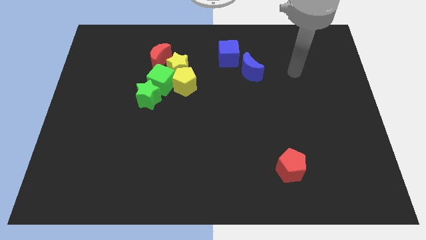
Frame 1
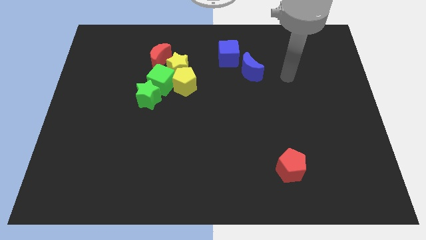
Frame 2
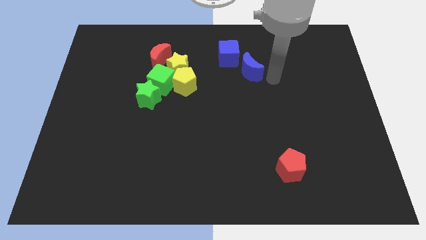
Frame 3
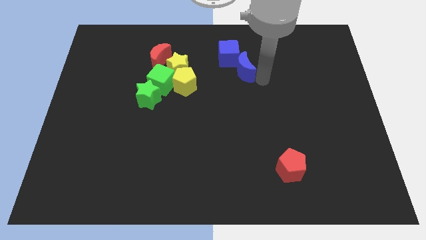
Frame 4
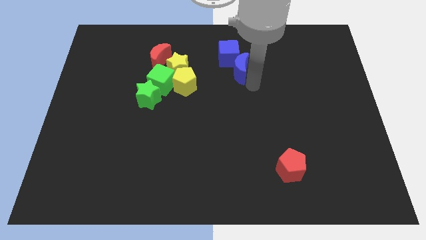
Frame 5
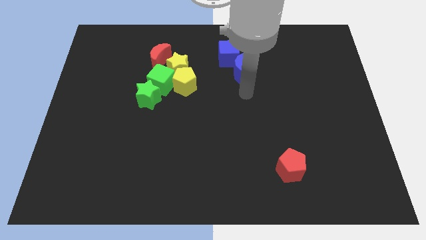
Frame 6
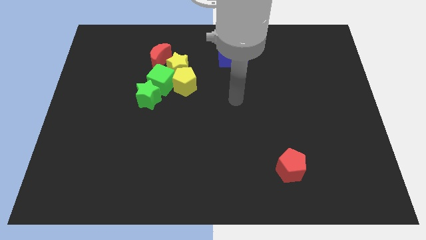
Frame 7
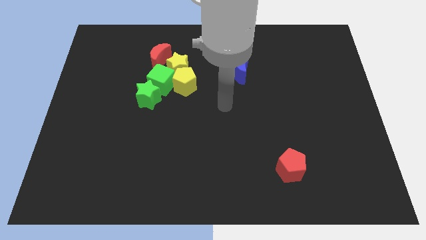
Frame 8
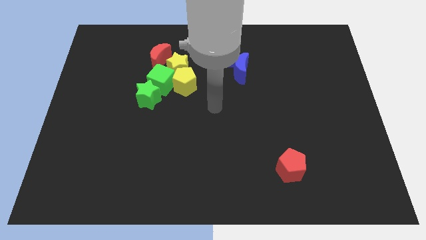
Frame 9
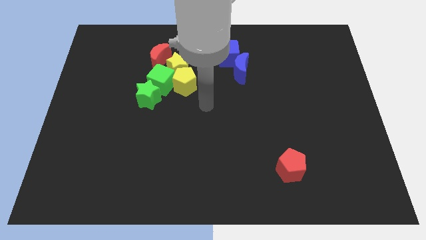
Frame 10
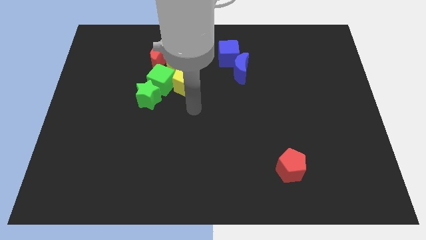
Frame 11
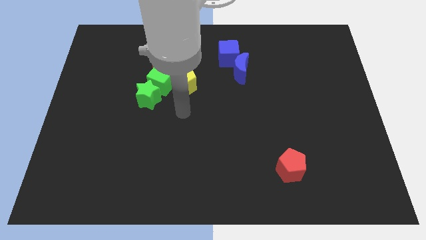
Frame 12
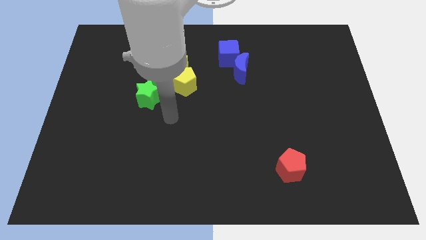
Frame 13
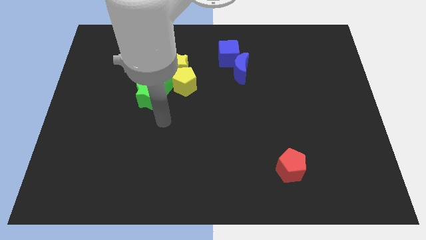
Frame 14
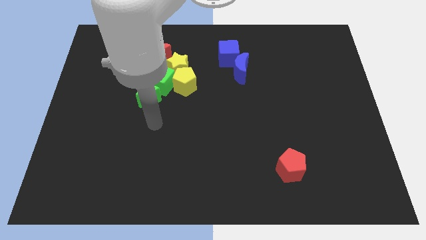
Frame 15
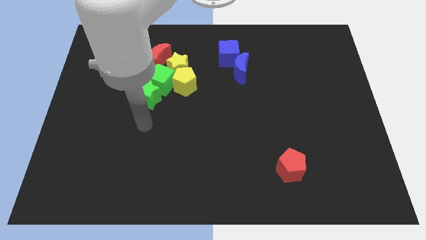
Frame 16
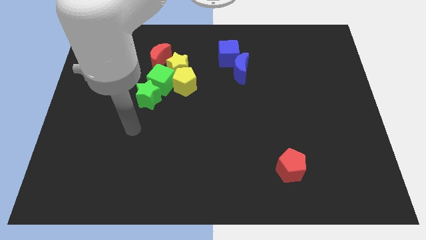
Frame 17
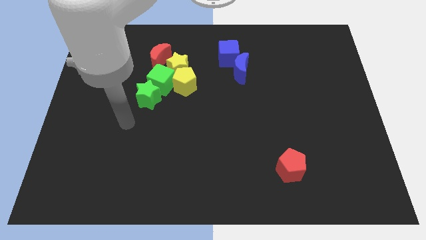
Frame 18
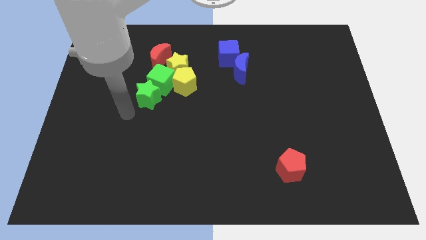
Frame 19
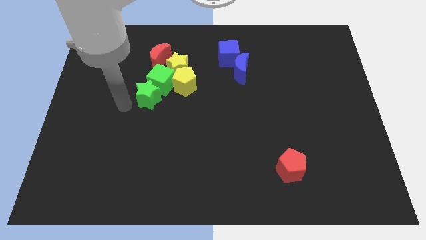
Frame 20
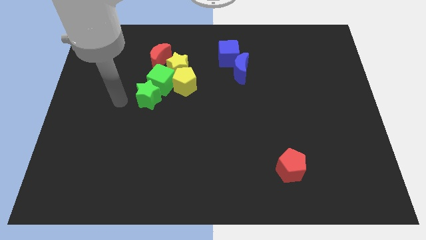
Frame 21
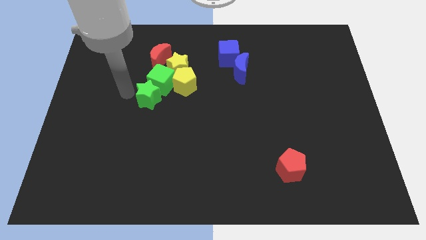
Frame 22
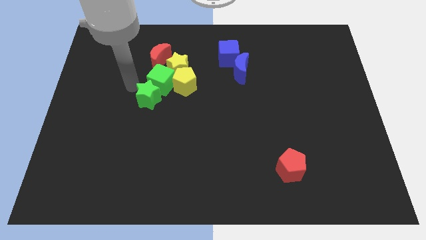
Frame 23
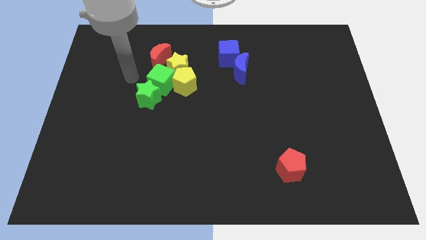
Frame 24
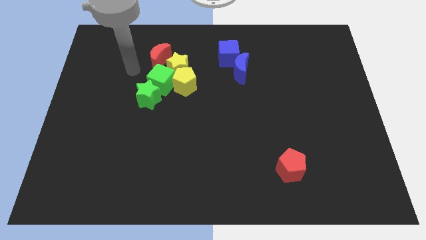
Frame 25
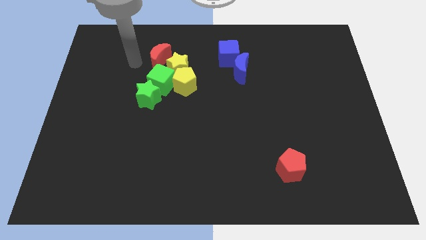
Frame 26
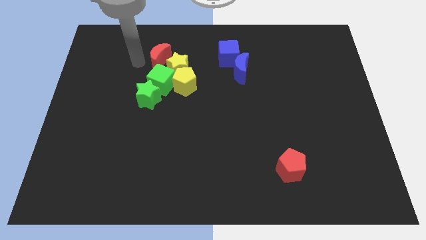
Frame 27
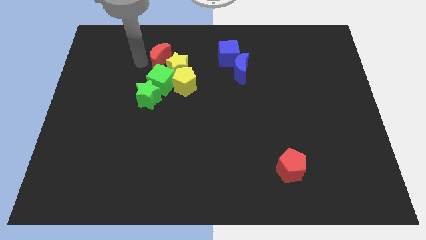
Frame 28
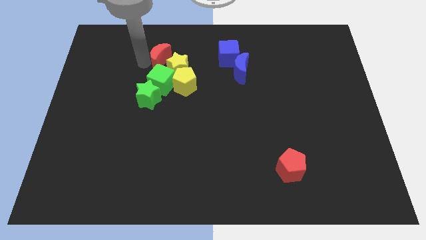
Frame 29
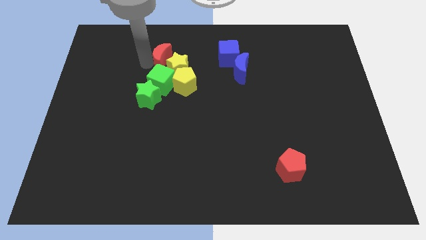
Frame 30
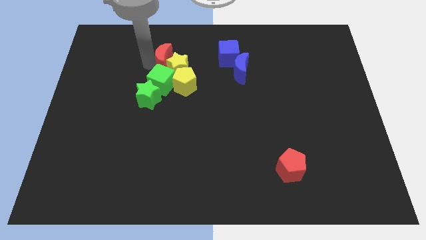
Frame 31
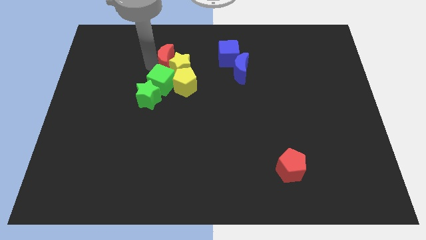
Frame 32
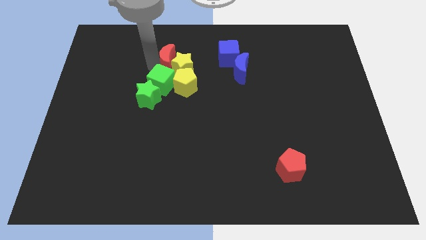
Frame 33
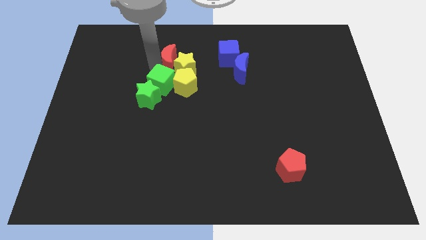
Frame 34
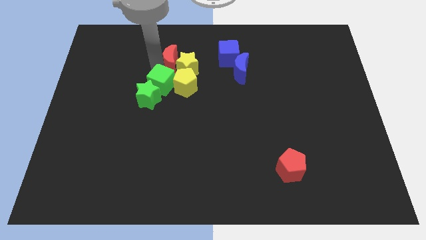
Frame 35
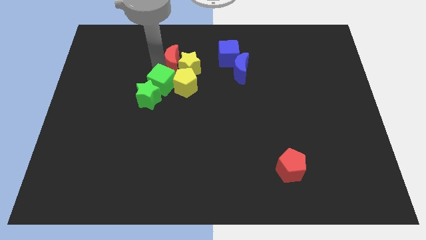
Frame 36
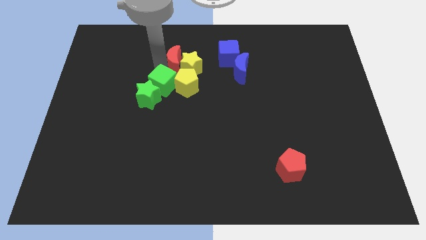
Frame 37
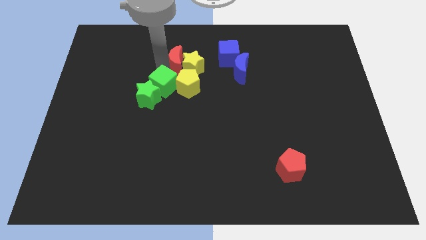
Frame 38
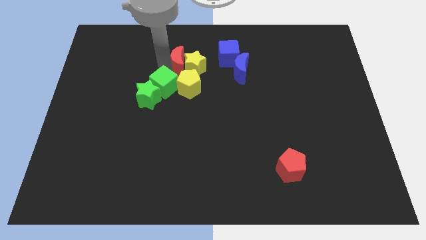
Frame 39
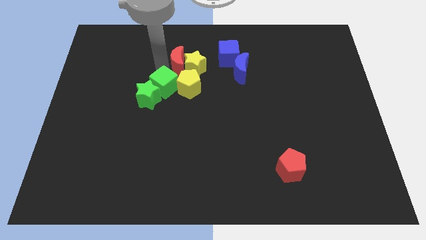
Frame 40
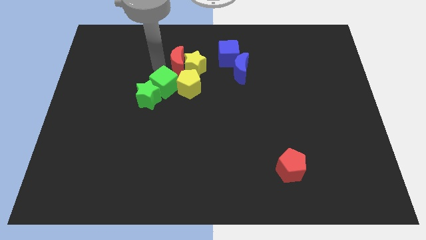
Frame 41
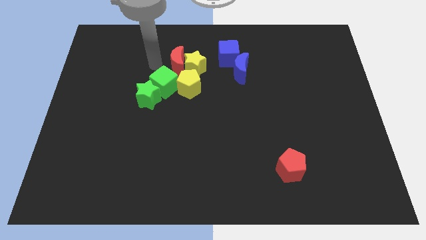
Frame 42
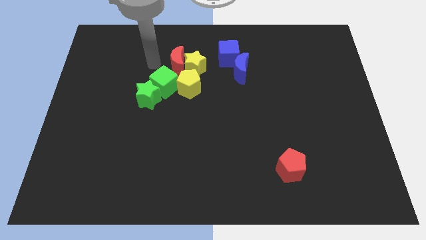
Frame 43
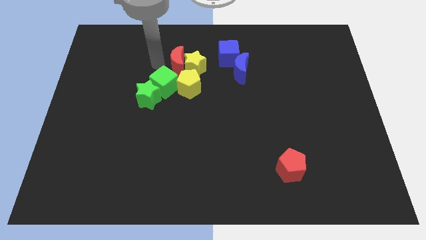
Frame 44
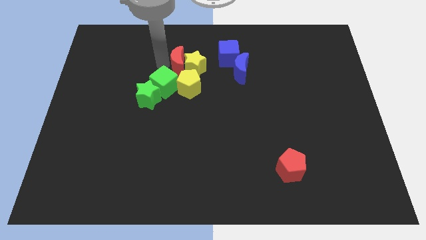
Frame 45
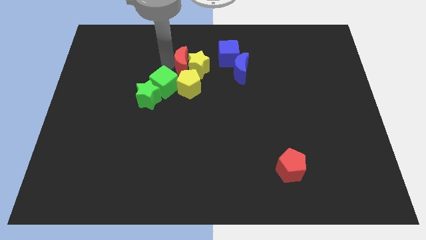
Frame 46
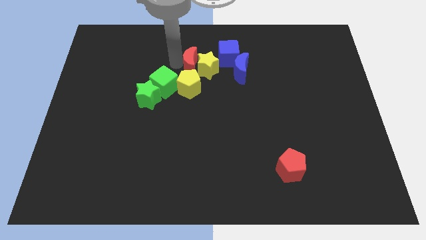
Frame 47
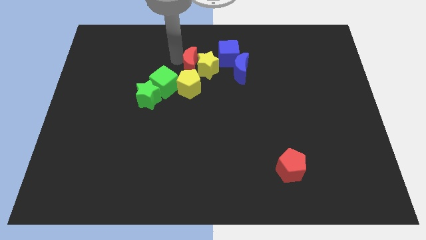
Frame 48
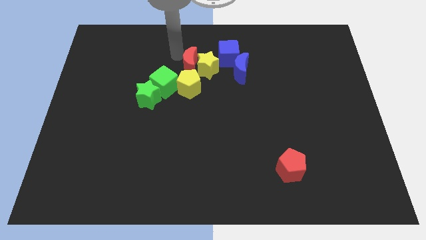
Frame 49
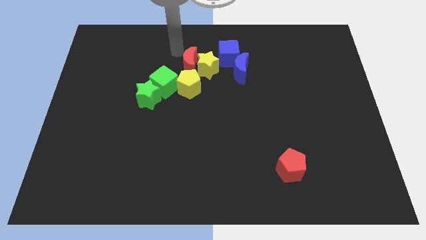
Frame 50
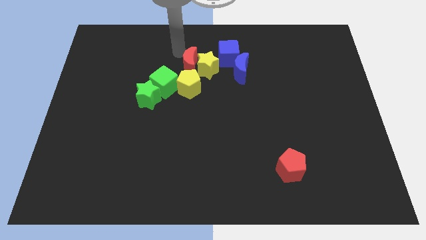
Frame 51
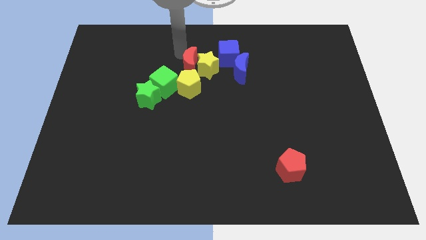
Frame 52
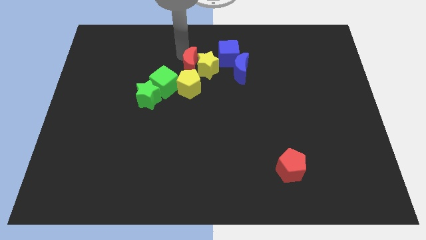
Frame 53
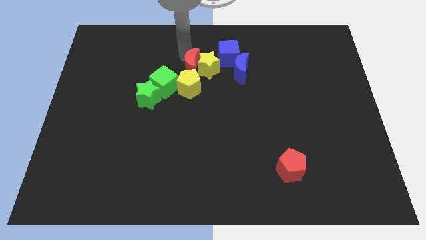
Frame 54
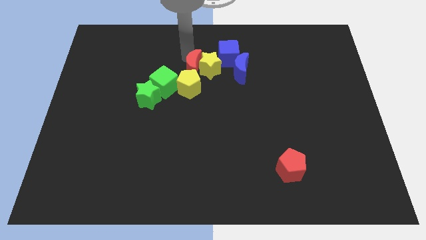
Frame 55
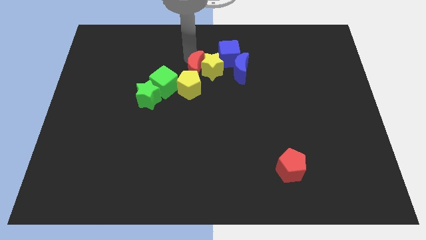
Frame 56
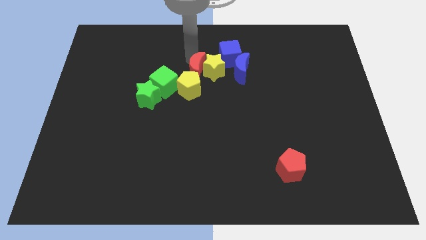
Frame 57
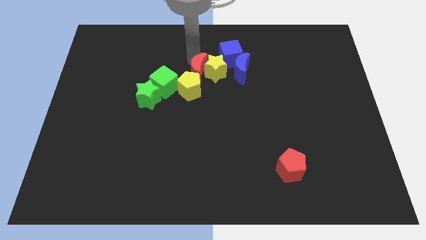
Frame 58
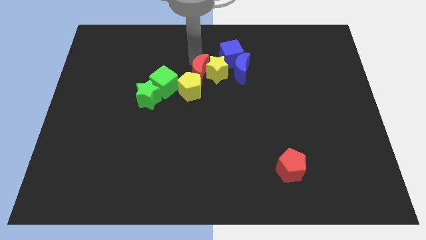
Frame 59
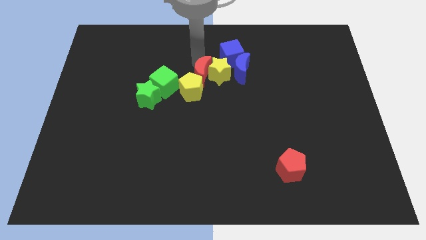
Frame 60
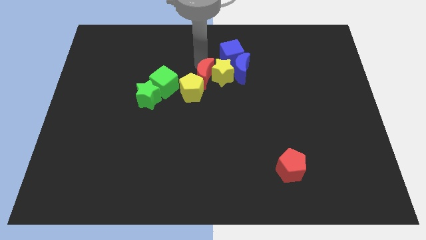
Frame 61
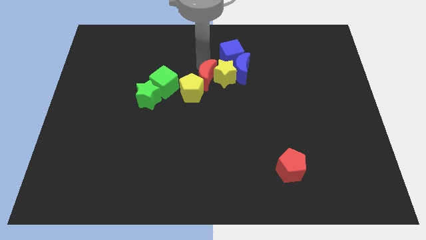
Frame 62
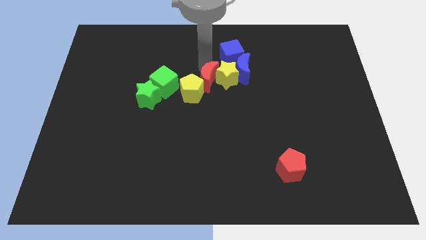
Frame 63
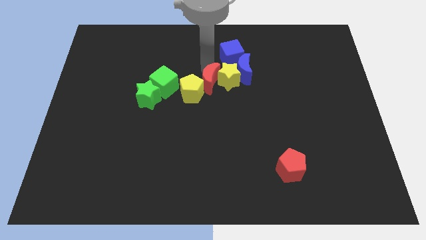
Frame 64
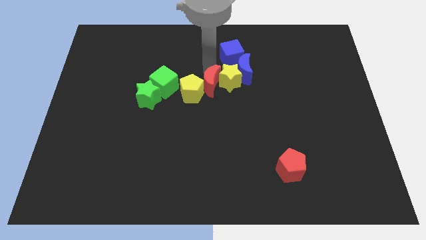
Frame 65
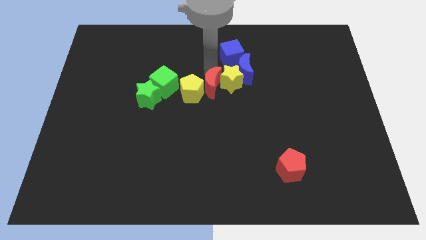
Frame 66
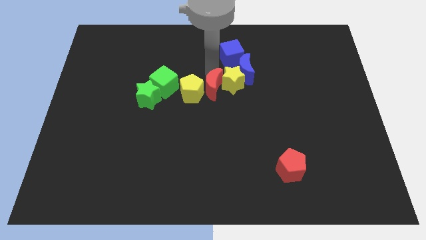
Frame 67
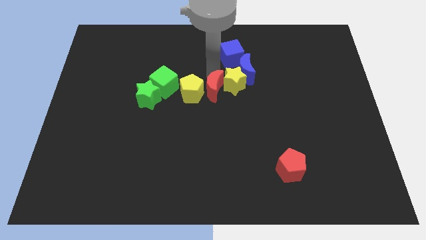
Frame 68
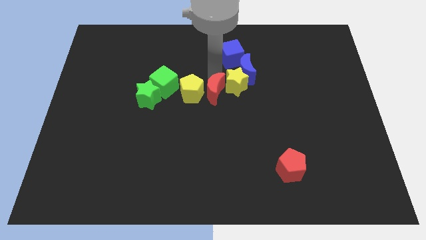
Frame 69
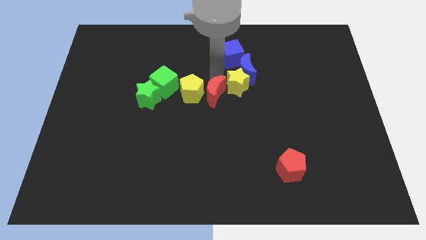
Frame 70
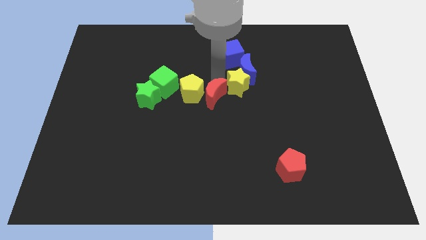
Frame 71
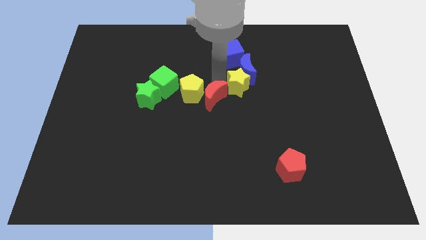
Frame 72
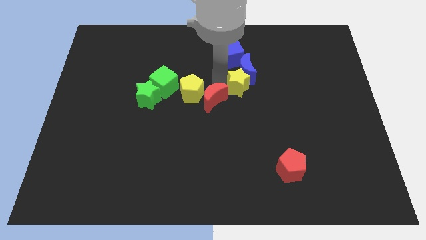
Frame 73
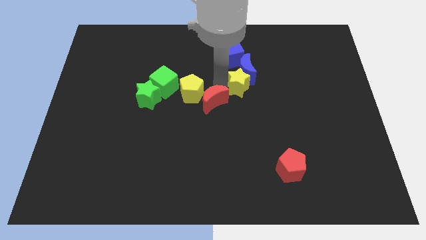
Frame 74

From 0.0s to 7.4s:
push the red moon down and right

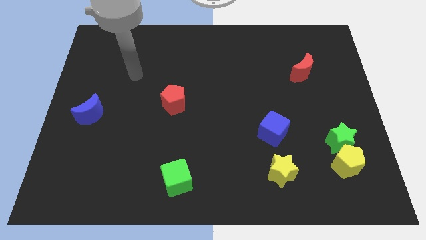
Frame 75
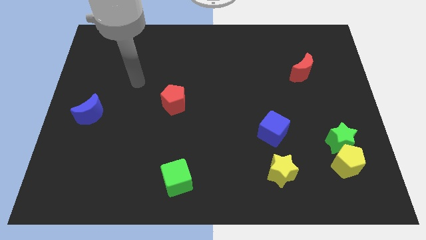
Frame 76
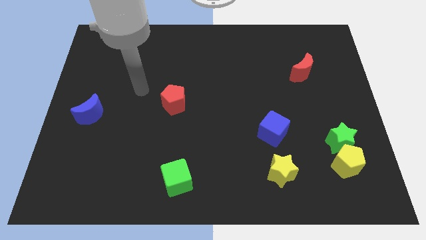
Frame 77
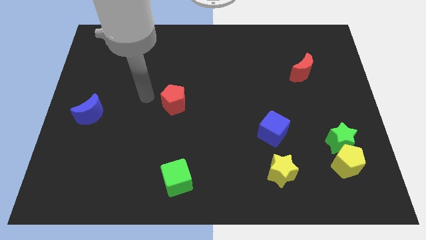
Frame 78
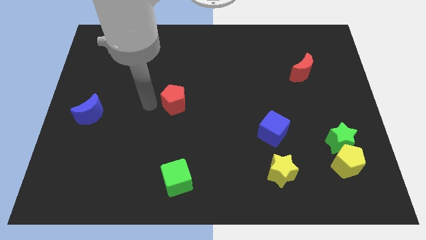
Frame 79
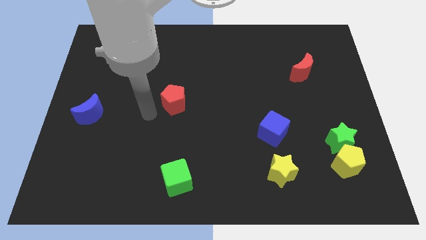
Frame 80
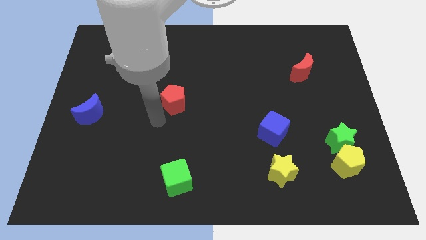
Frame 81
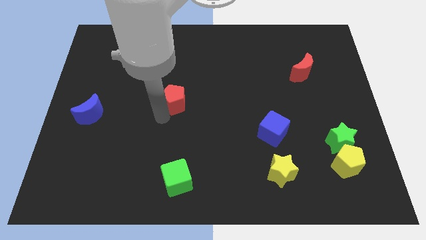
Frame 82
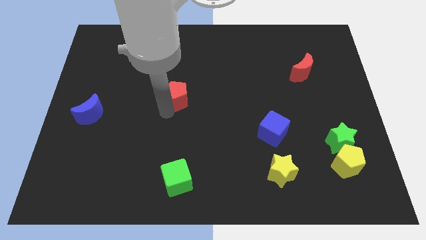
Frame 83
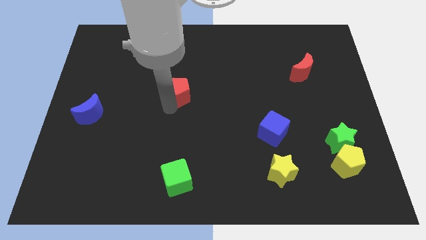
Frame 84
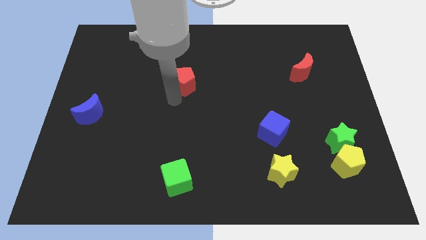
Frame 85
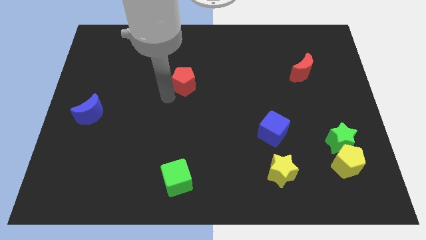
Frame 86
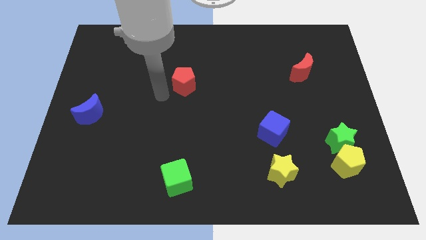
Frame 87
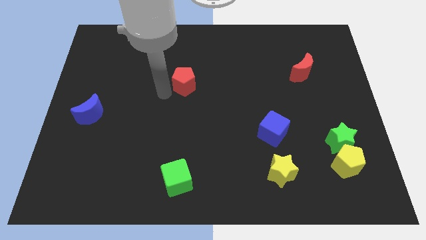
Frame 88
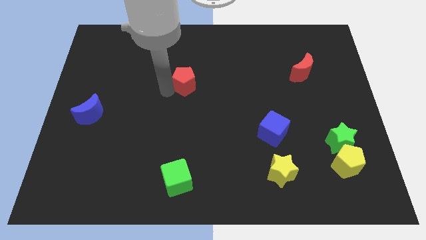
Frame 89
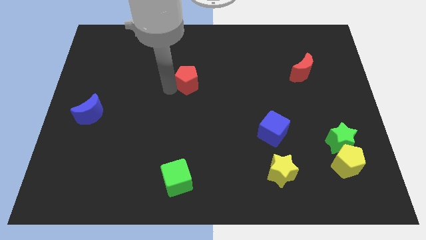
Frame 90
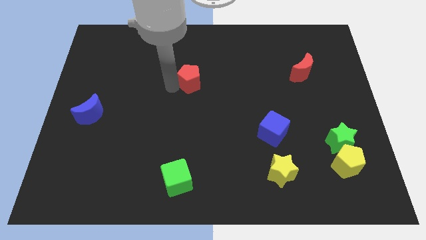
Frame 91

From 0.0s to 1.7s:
move the red pentagon a bit upwards and to the right
